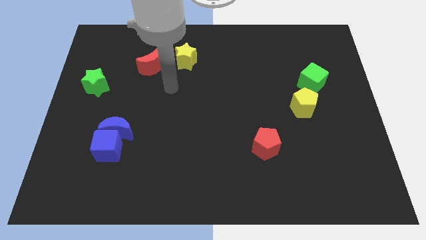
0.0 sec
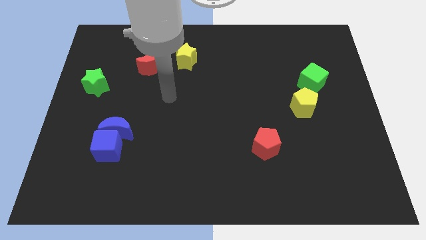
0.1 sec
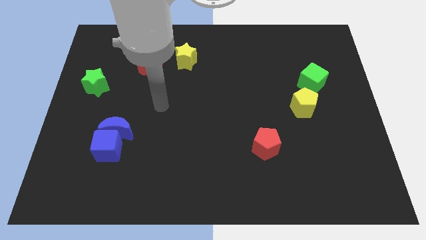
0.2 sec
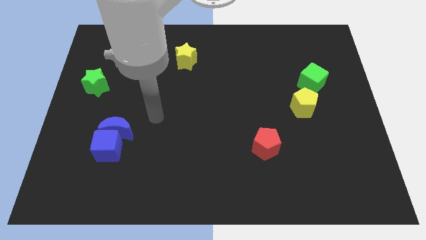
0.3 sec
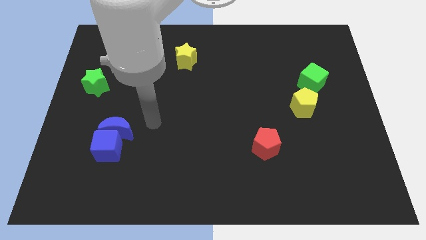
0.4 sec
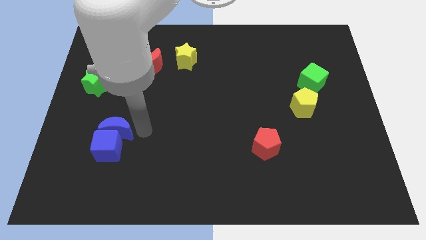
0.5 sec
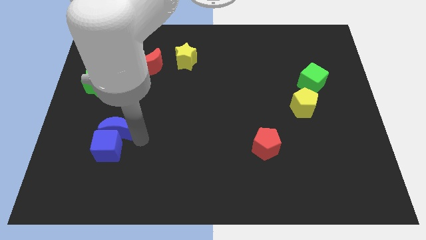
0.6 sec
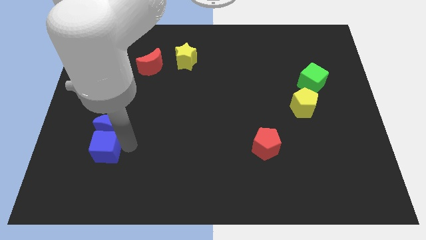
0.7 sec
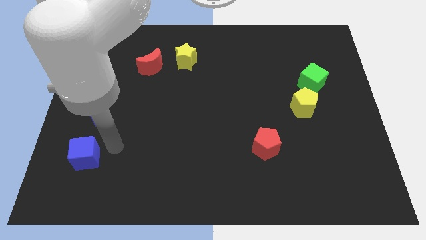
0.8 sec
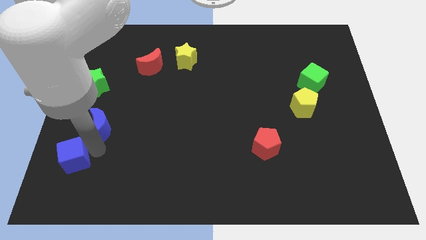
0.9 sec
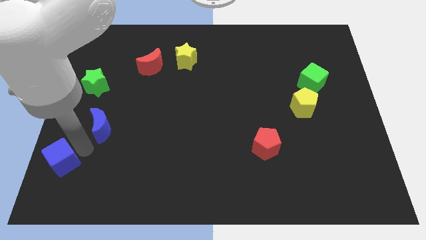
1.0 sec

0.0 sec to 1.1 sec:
move the blue moon away from the blue cube

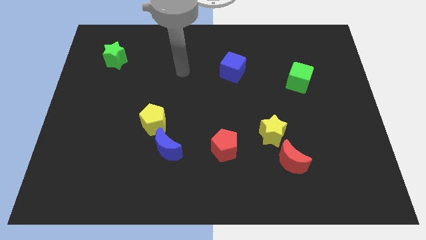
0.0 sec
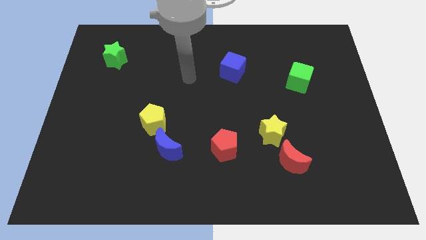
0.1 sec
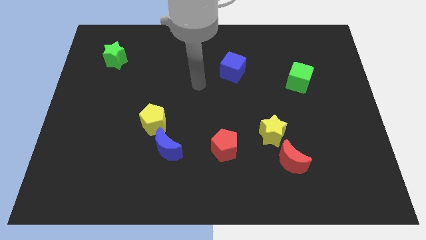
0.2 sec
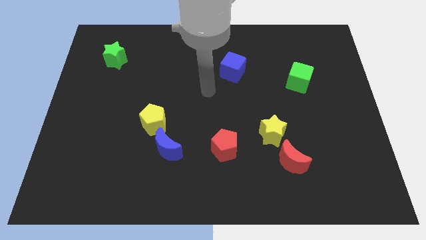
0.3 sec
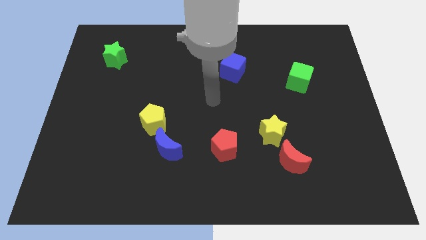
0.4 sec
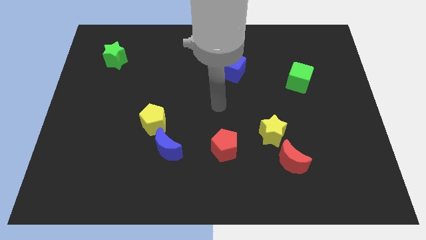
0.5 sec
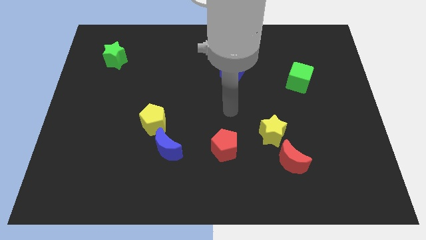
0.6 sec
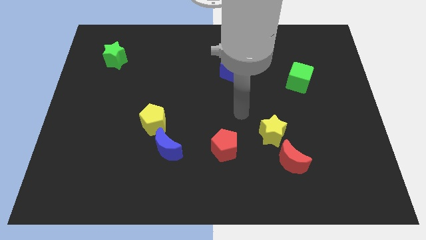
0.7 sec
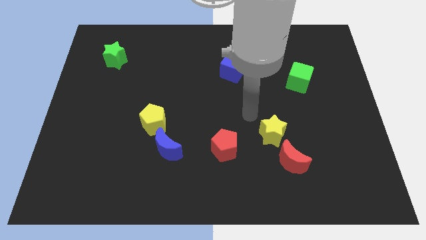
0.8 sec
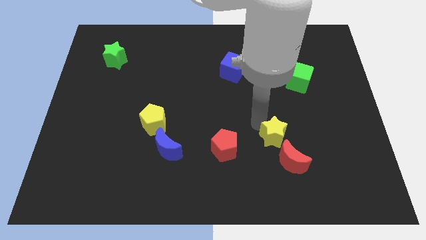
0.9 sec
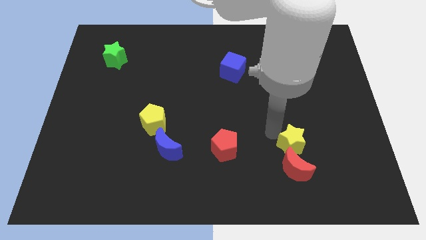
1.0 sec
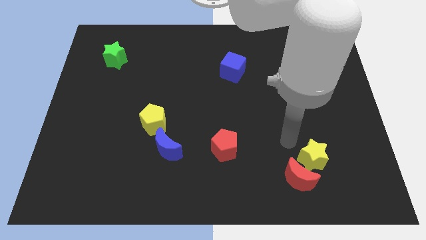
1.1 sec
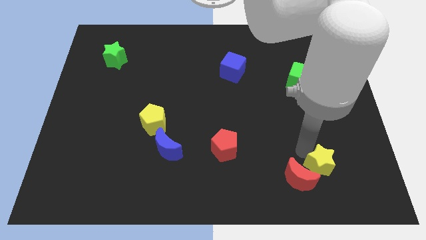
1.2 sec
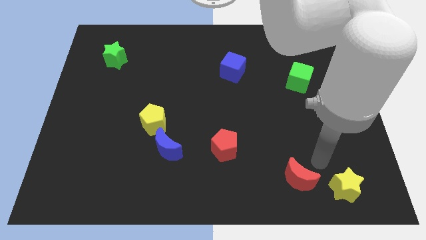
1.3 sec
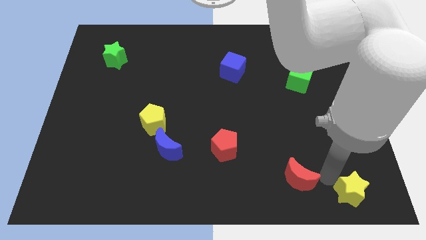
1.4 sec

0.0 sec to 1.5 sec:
separate the red moon from the yellow star

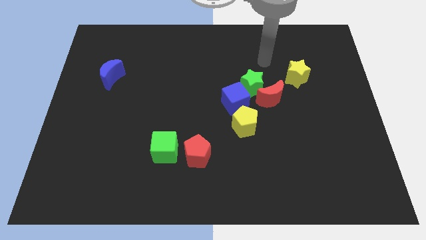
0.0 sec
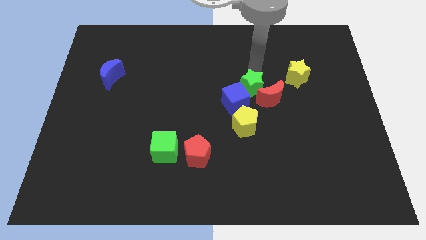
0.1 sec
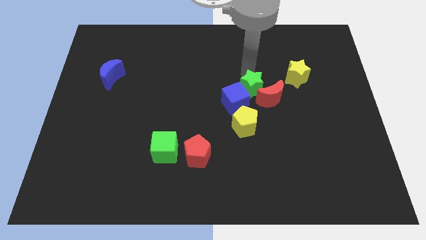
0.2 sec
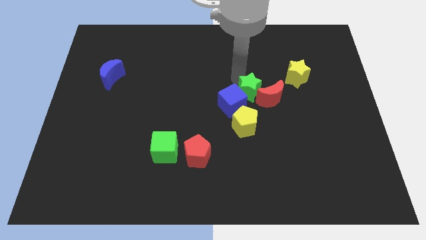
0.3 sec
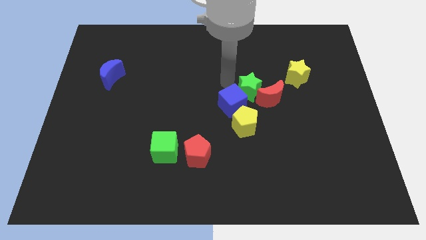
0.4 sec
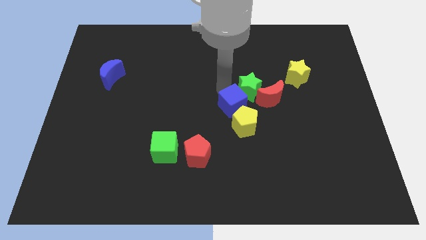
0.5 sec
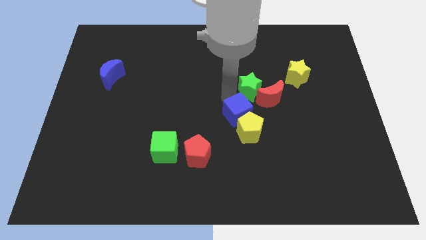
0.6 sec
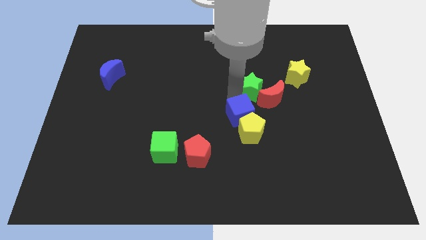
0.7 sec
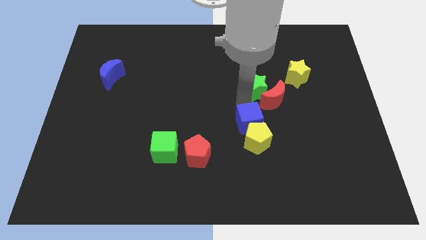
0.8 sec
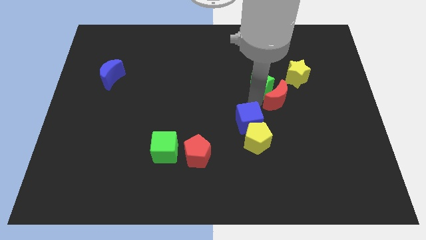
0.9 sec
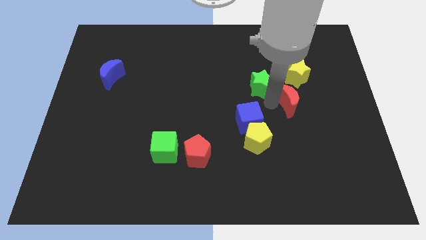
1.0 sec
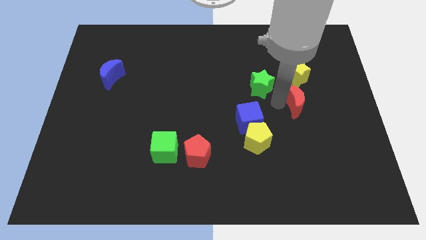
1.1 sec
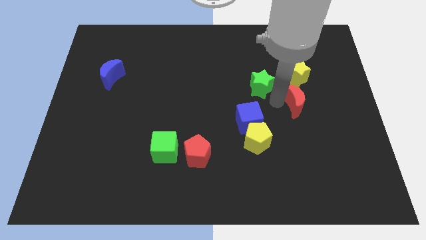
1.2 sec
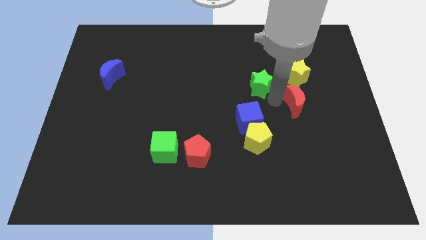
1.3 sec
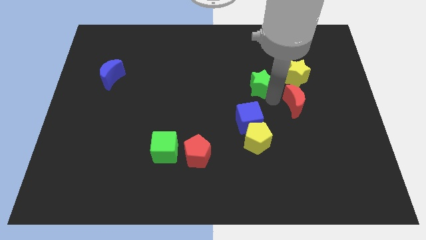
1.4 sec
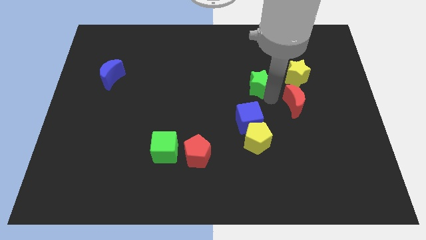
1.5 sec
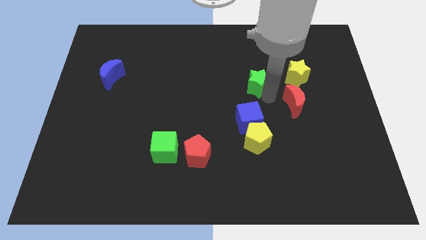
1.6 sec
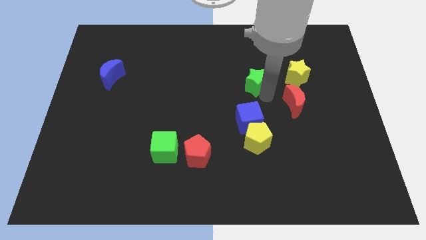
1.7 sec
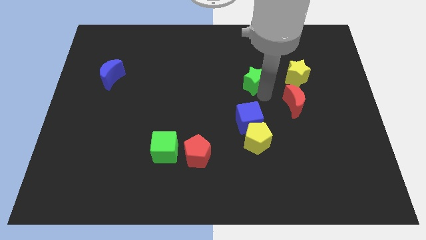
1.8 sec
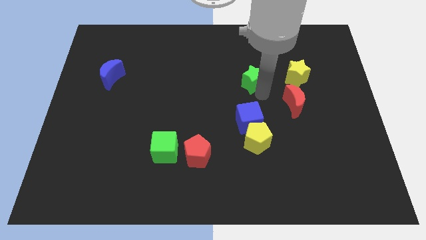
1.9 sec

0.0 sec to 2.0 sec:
move the green star away from the red moon and blue cube

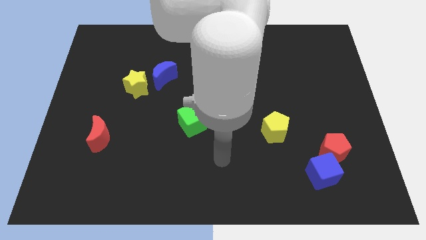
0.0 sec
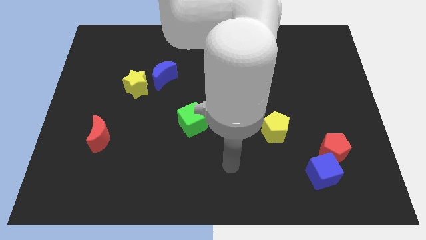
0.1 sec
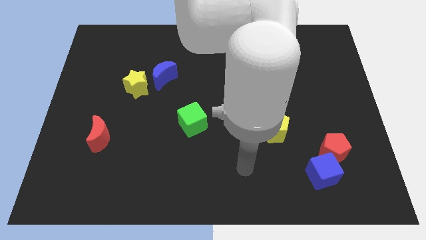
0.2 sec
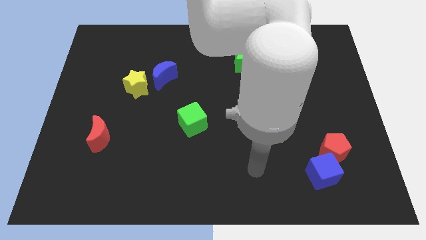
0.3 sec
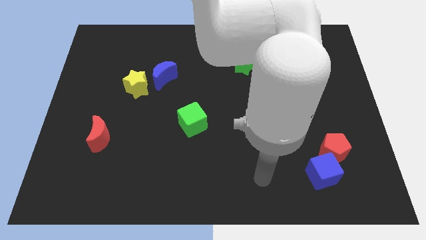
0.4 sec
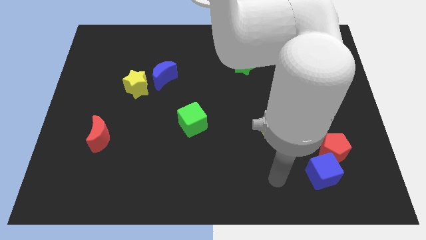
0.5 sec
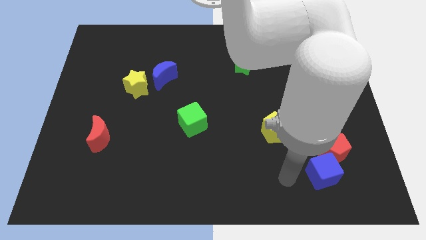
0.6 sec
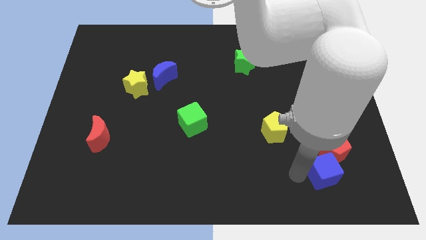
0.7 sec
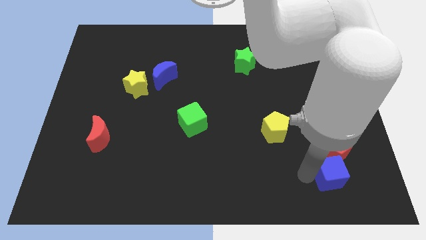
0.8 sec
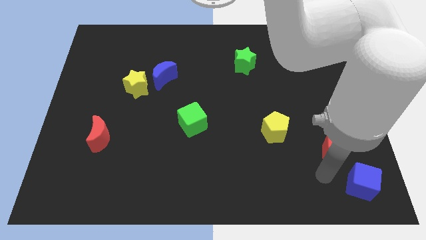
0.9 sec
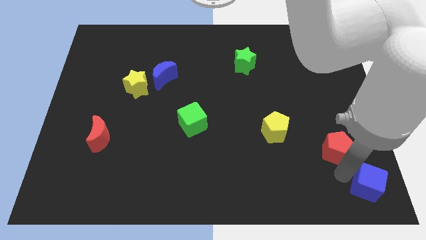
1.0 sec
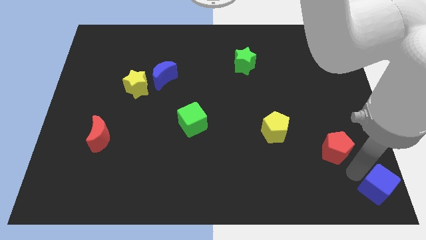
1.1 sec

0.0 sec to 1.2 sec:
pull the red pentagon apart from the blue cube

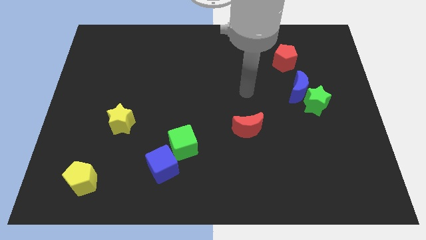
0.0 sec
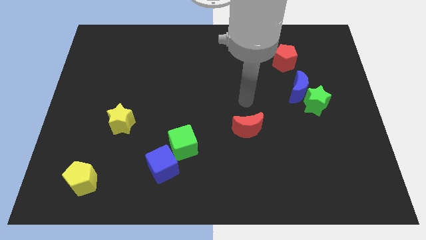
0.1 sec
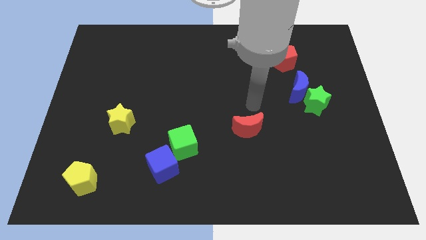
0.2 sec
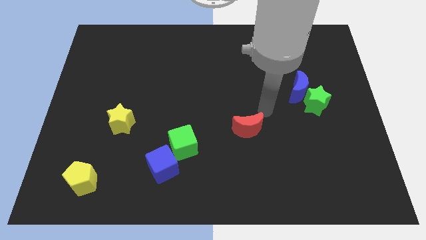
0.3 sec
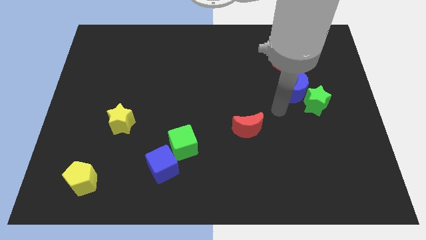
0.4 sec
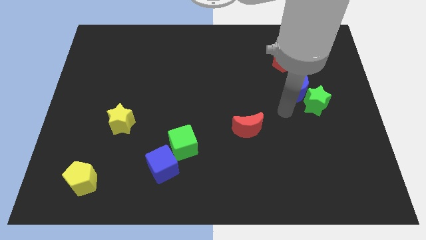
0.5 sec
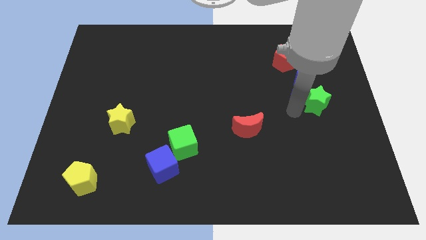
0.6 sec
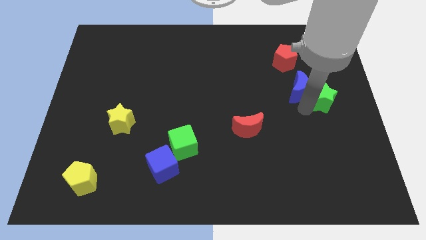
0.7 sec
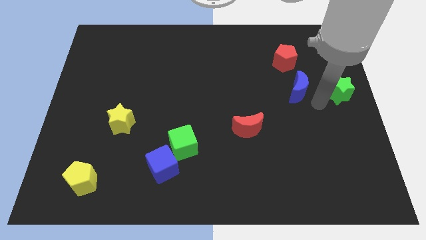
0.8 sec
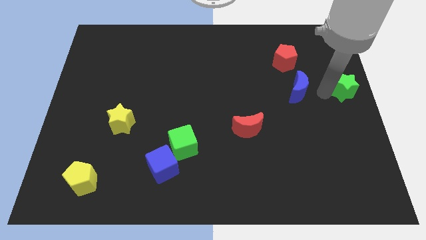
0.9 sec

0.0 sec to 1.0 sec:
separate the blue moon from the green star

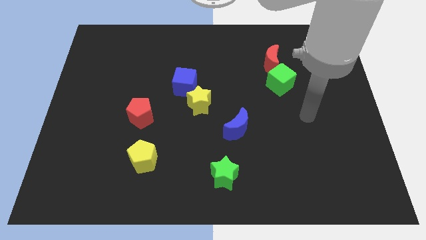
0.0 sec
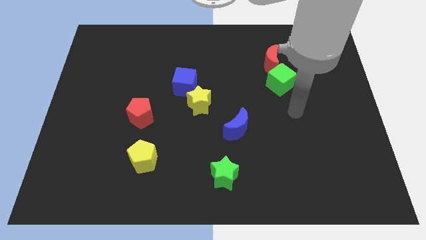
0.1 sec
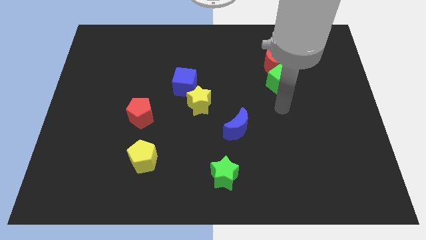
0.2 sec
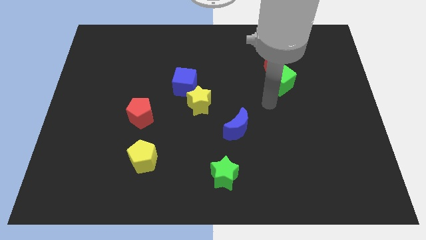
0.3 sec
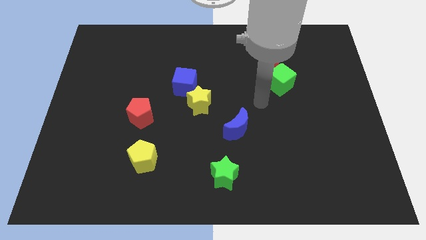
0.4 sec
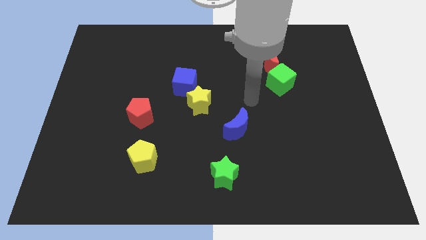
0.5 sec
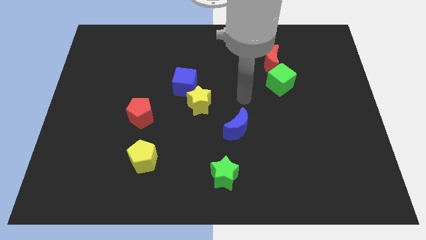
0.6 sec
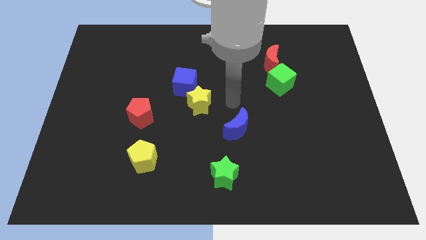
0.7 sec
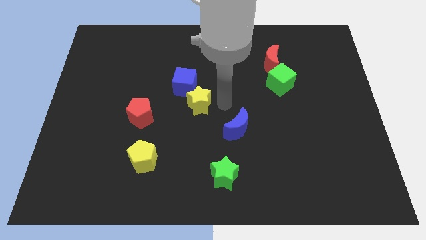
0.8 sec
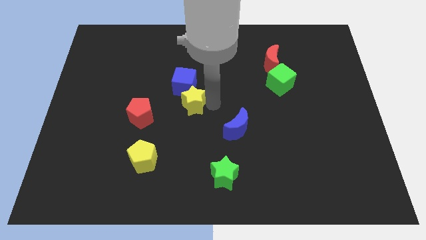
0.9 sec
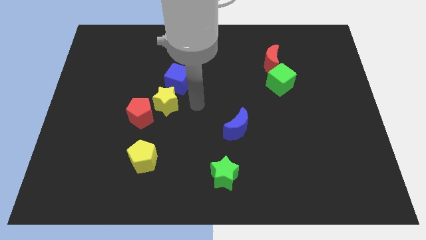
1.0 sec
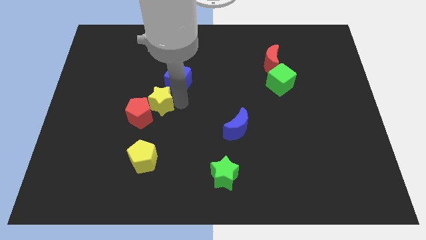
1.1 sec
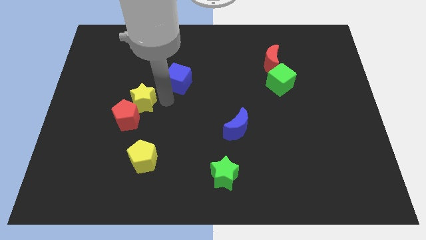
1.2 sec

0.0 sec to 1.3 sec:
move the blue cube away from the yellow star

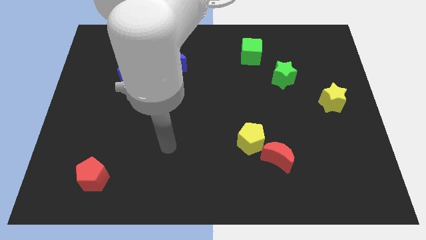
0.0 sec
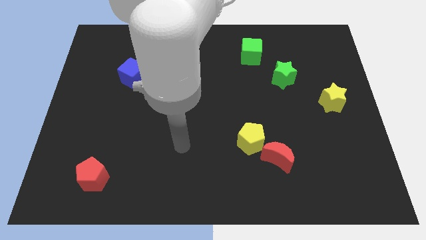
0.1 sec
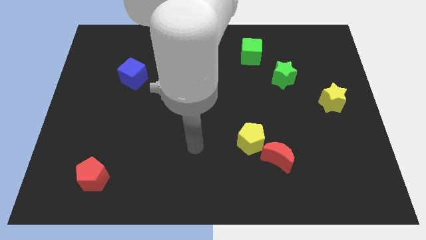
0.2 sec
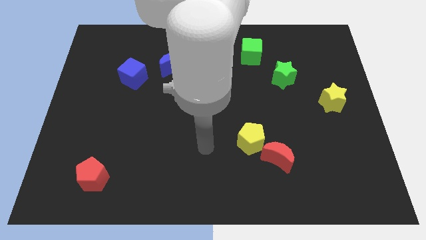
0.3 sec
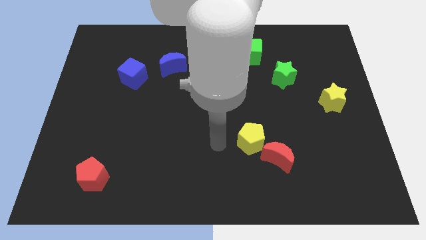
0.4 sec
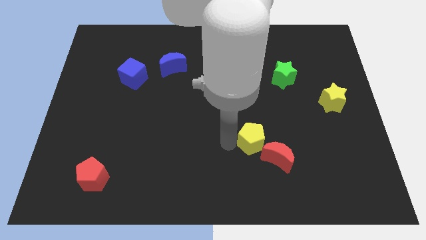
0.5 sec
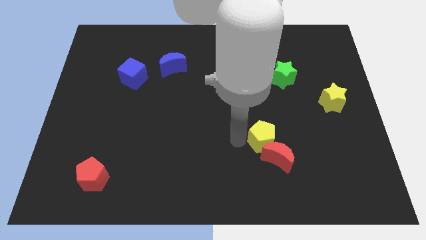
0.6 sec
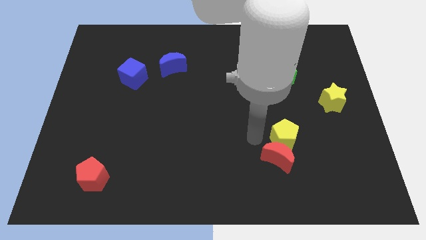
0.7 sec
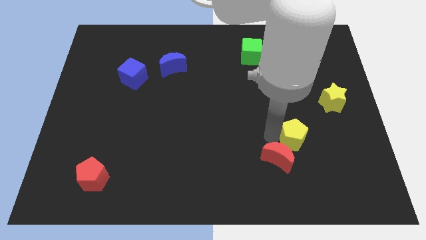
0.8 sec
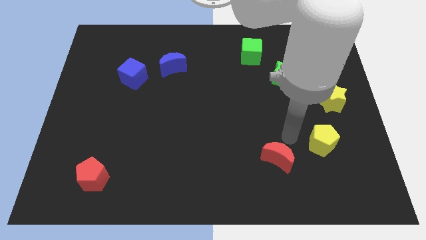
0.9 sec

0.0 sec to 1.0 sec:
separate the red moon from the yellow pentagon

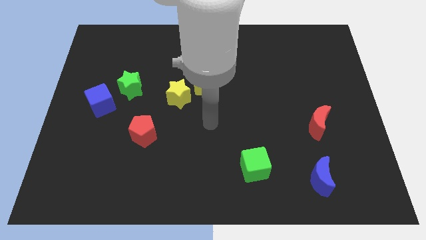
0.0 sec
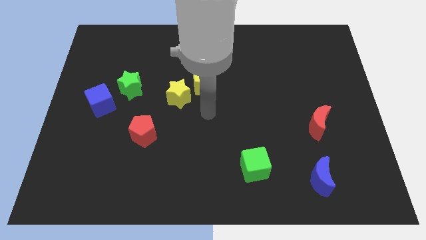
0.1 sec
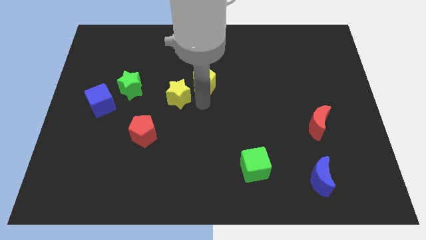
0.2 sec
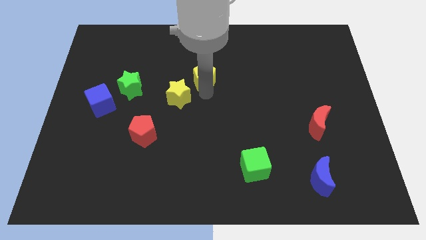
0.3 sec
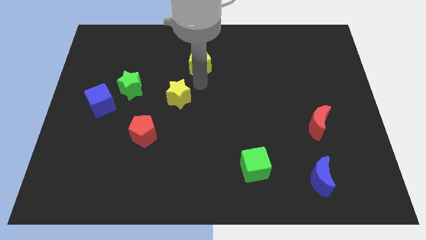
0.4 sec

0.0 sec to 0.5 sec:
pull the yellow star apart from the yellow pentagon
